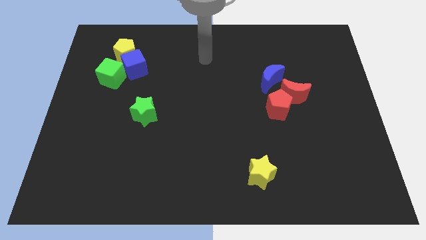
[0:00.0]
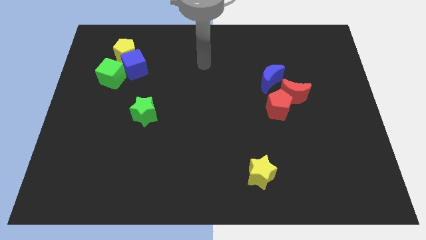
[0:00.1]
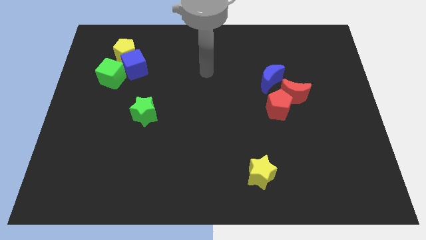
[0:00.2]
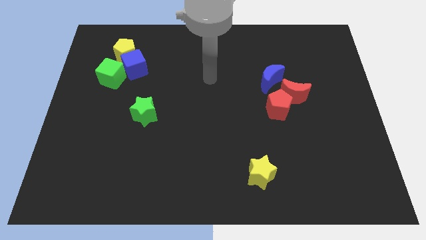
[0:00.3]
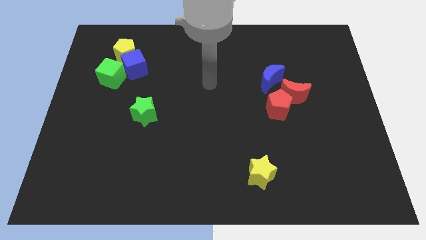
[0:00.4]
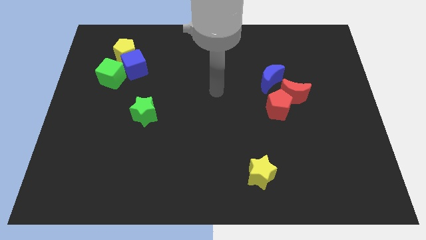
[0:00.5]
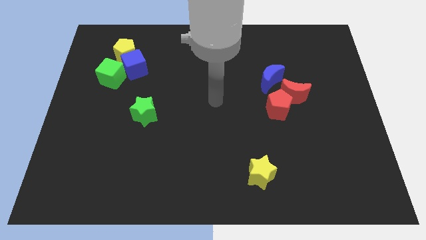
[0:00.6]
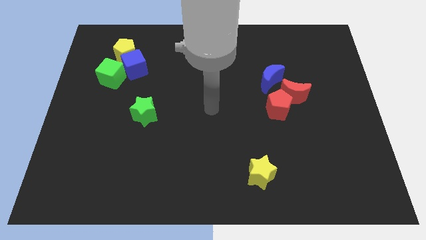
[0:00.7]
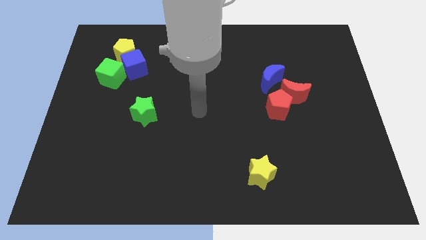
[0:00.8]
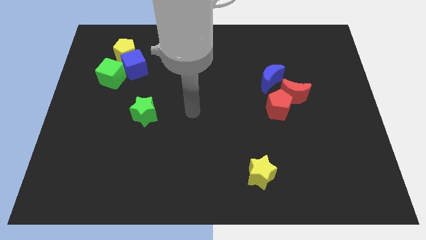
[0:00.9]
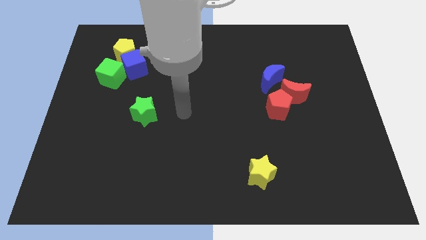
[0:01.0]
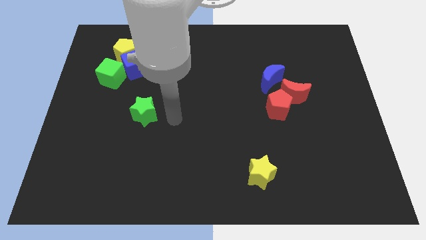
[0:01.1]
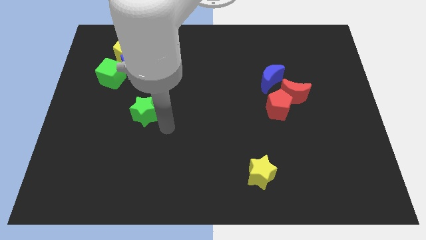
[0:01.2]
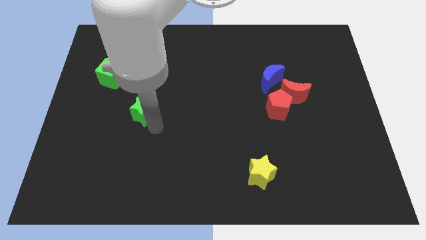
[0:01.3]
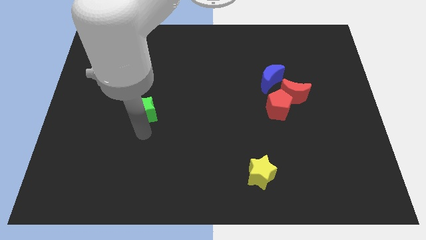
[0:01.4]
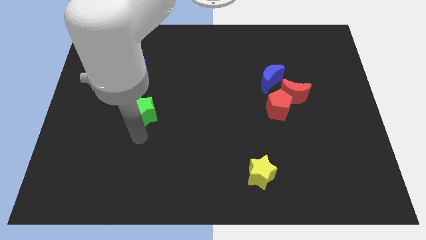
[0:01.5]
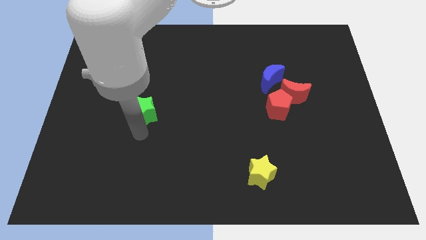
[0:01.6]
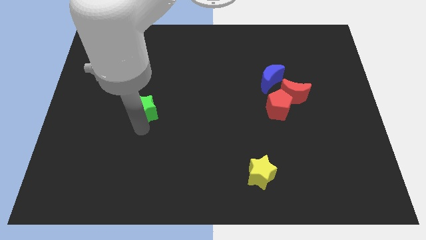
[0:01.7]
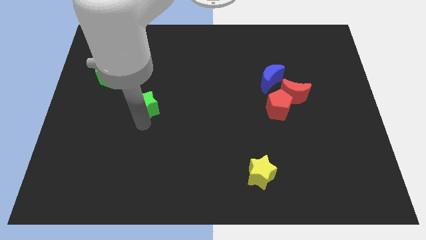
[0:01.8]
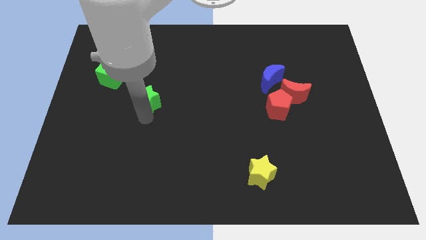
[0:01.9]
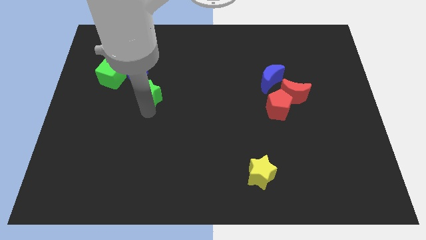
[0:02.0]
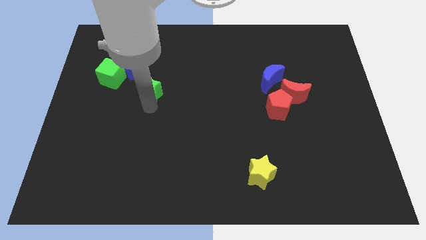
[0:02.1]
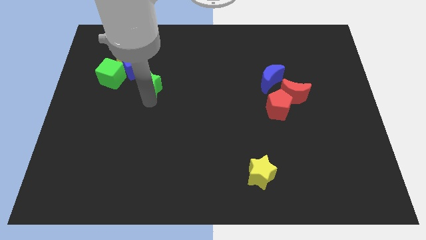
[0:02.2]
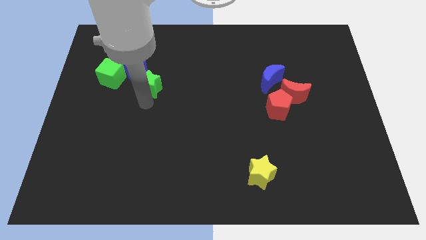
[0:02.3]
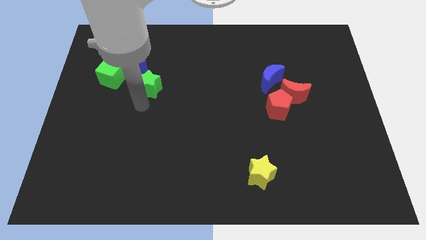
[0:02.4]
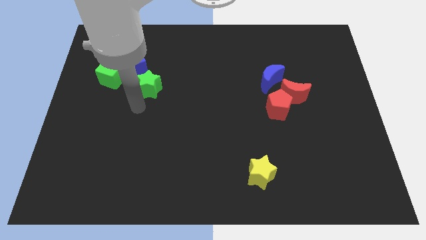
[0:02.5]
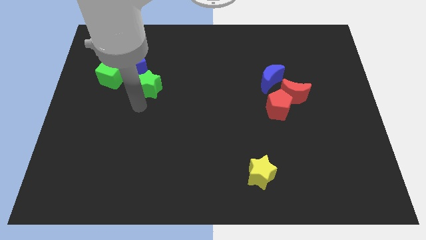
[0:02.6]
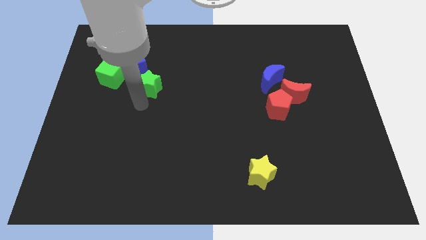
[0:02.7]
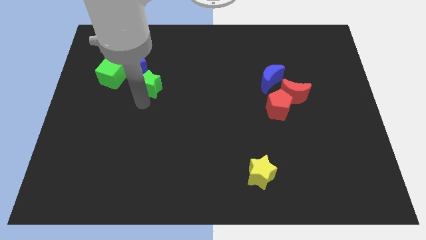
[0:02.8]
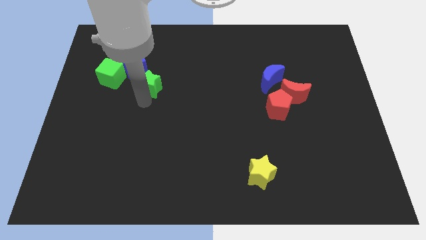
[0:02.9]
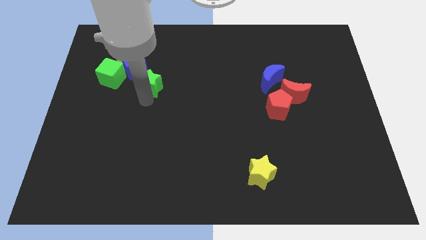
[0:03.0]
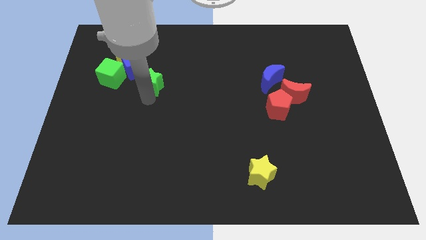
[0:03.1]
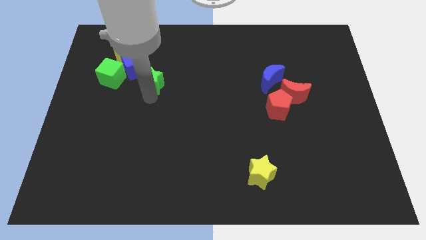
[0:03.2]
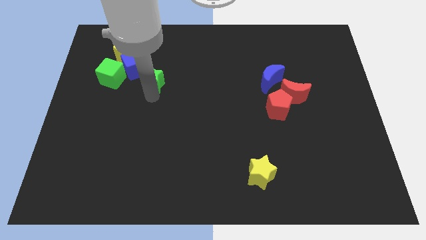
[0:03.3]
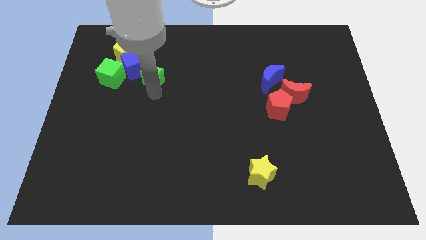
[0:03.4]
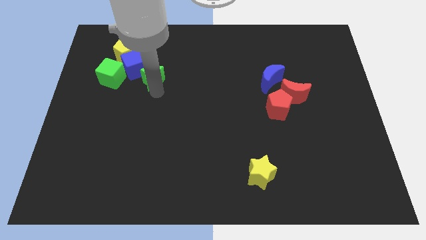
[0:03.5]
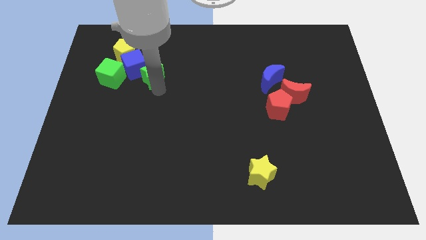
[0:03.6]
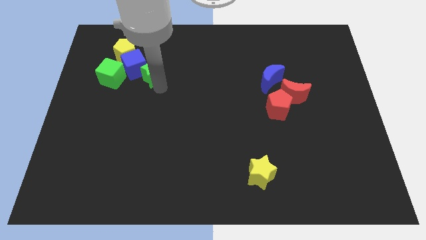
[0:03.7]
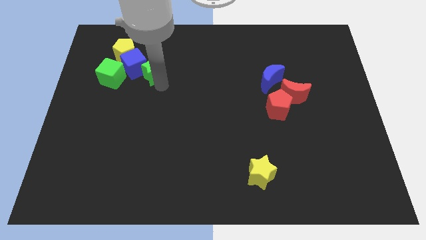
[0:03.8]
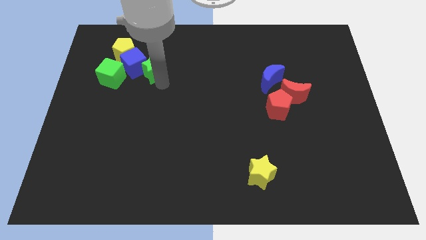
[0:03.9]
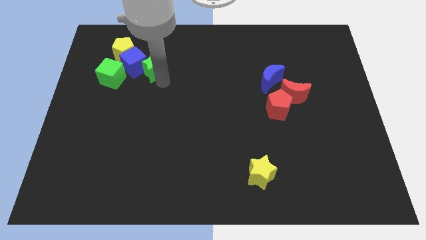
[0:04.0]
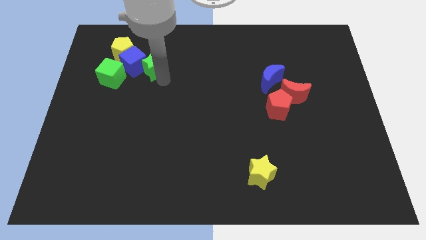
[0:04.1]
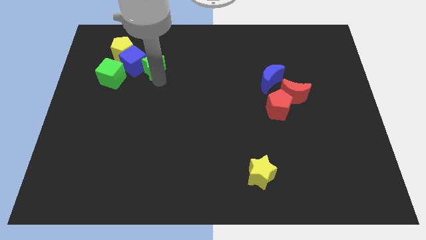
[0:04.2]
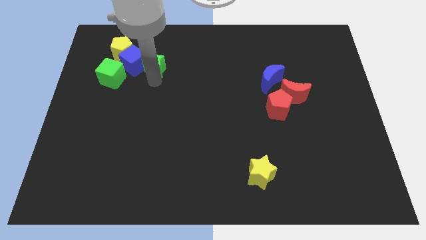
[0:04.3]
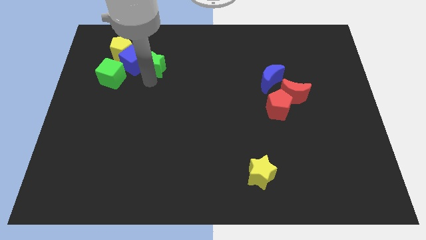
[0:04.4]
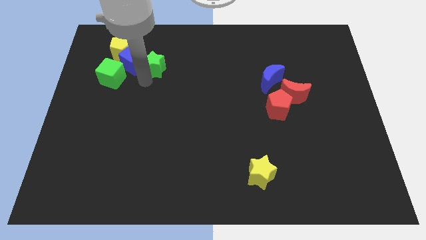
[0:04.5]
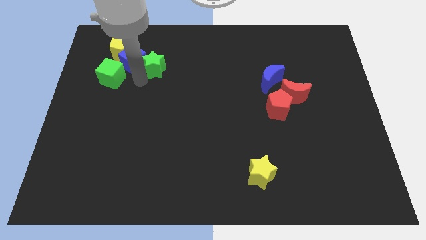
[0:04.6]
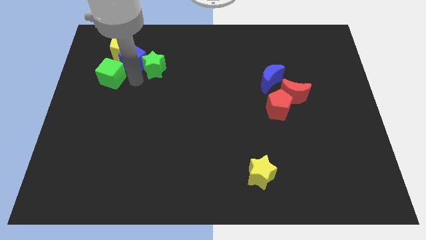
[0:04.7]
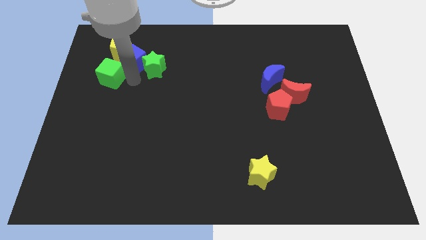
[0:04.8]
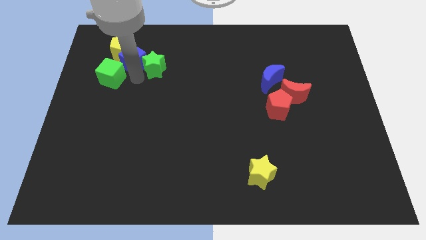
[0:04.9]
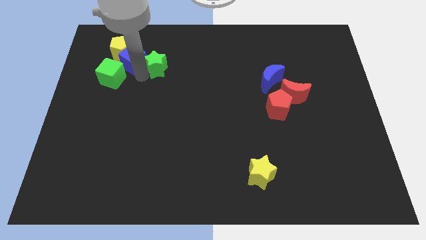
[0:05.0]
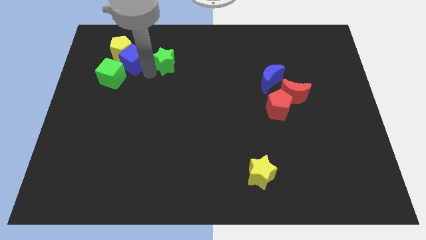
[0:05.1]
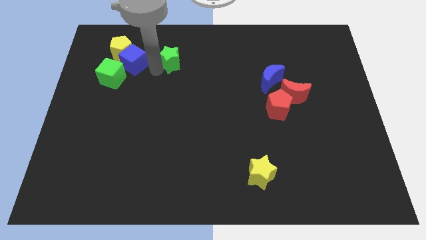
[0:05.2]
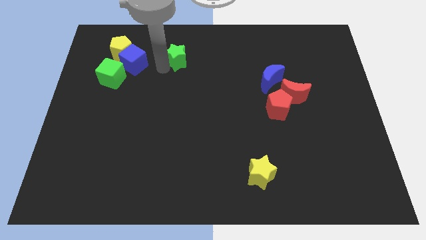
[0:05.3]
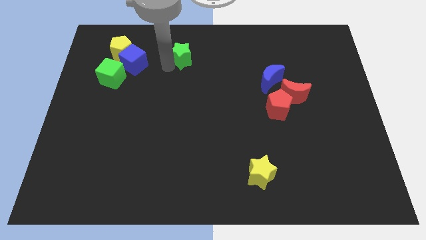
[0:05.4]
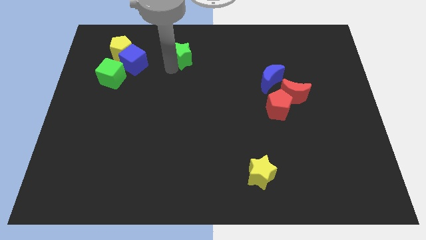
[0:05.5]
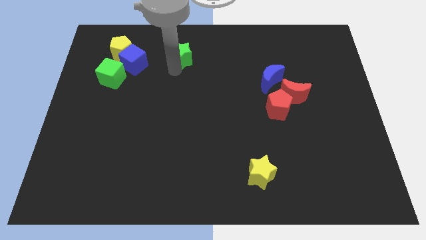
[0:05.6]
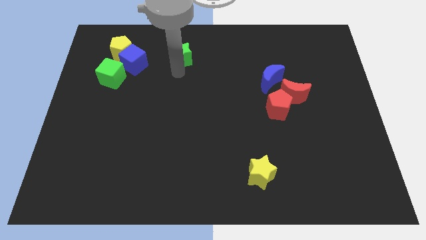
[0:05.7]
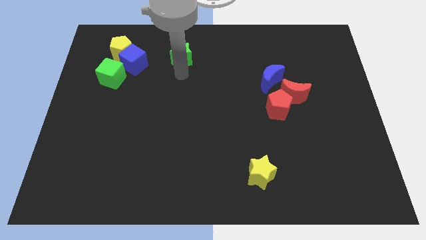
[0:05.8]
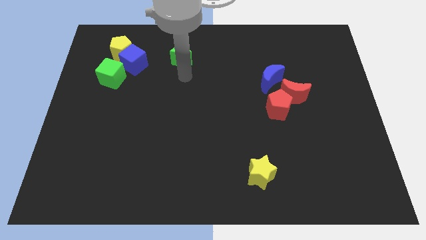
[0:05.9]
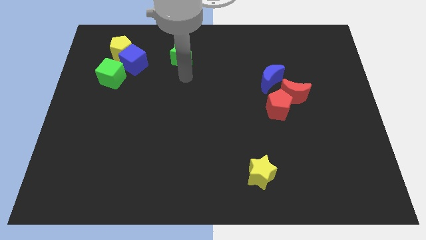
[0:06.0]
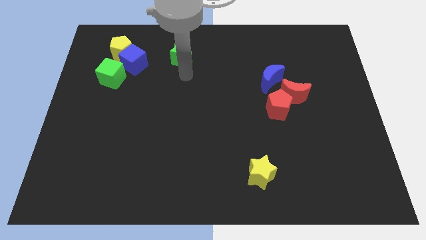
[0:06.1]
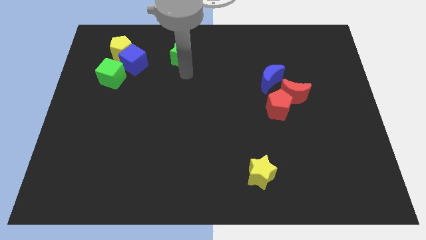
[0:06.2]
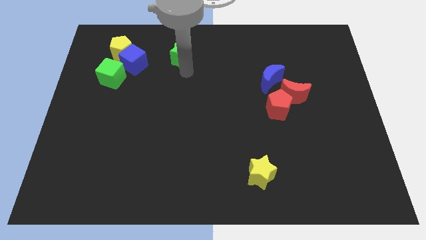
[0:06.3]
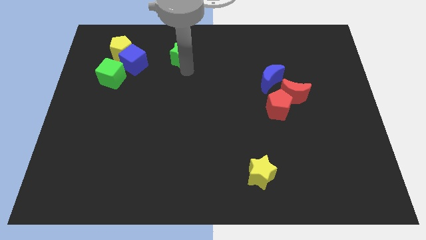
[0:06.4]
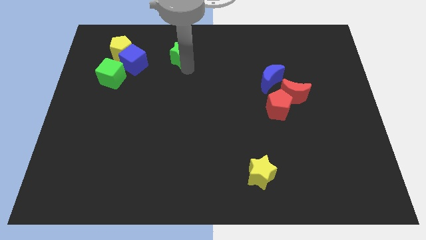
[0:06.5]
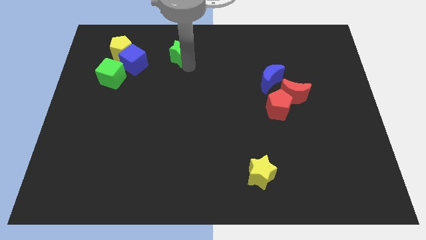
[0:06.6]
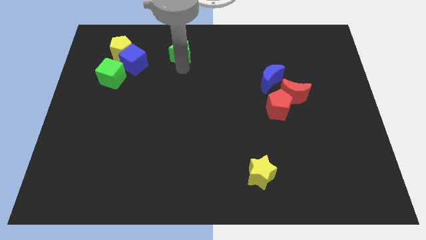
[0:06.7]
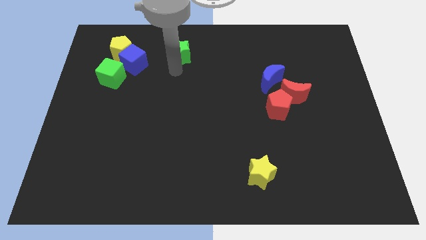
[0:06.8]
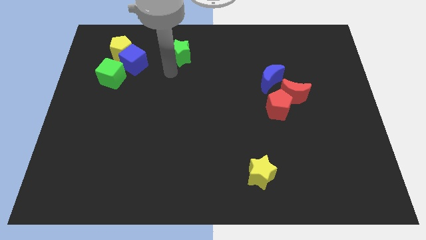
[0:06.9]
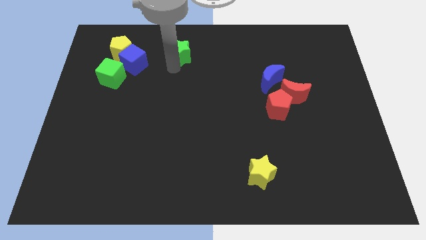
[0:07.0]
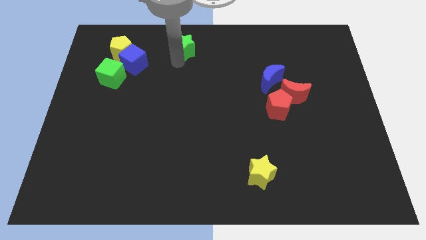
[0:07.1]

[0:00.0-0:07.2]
move the green star to the top
